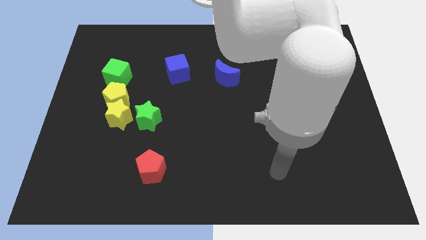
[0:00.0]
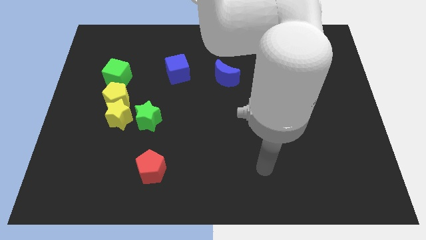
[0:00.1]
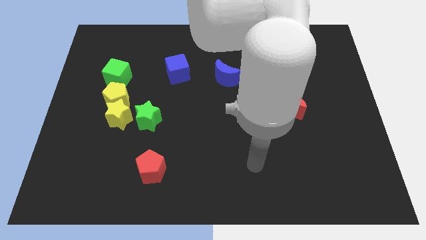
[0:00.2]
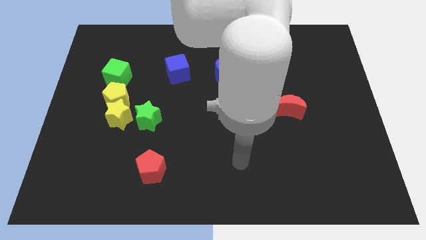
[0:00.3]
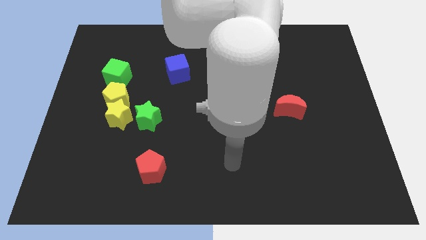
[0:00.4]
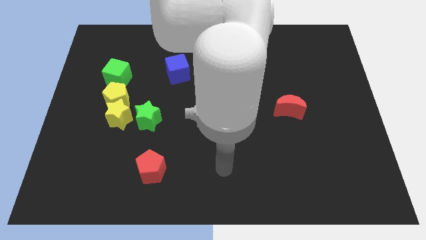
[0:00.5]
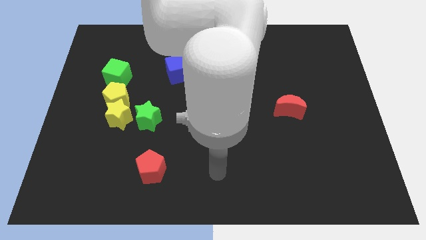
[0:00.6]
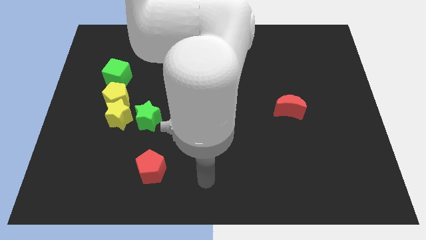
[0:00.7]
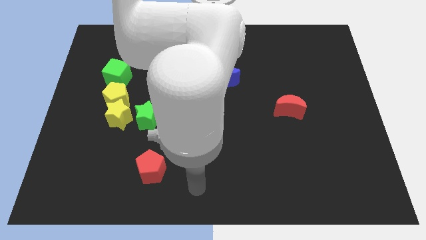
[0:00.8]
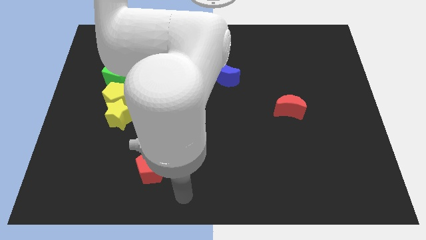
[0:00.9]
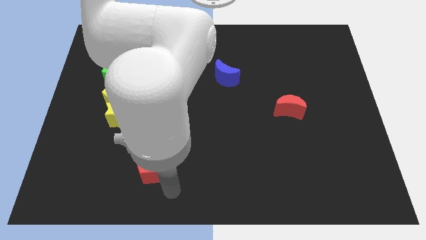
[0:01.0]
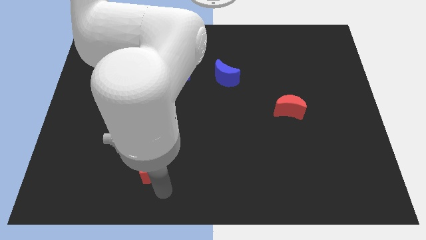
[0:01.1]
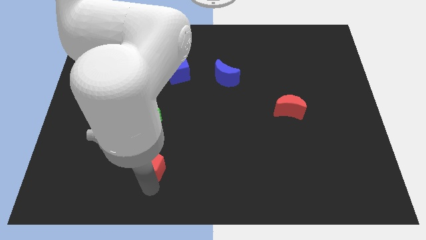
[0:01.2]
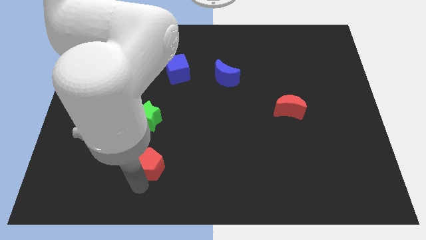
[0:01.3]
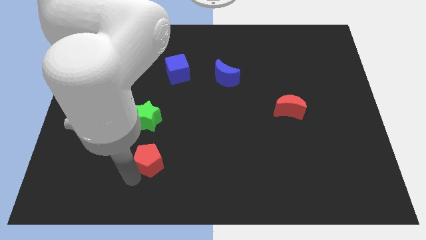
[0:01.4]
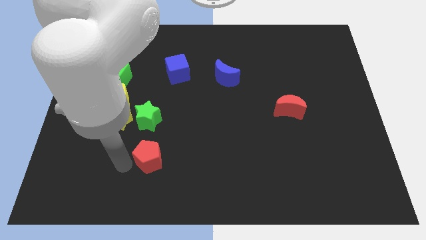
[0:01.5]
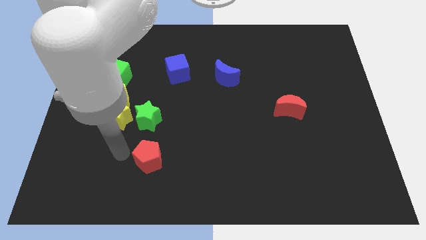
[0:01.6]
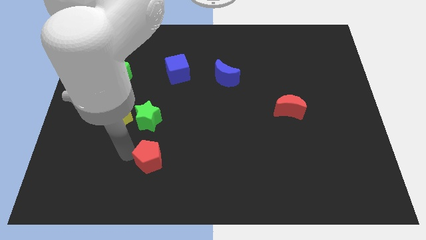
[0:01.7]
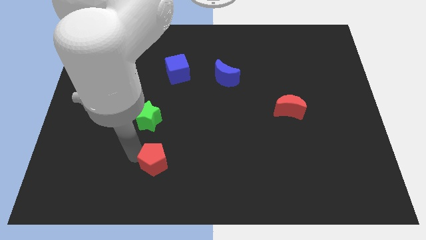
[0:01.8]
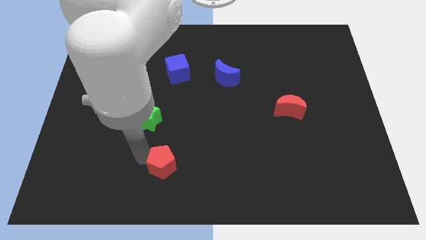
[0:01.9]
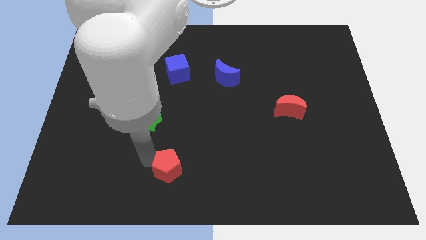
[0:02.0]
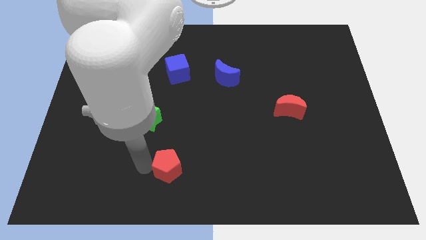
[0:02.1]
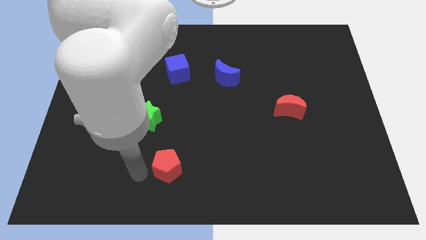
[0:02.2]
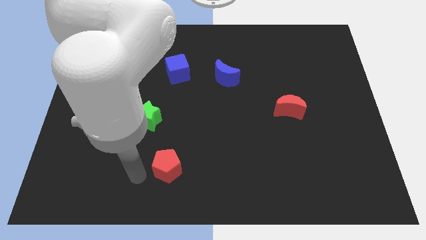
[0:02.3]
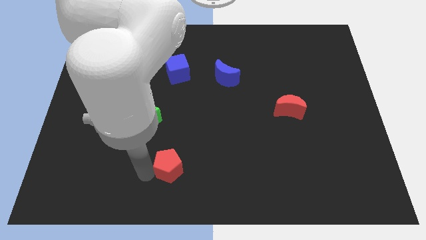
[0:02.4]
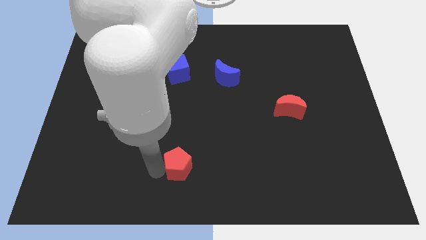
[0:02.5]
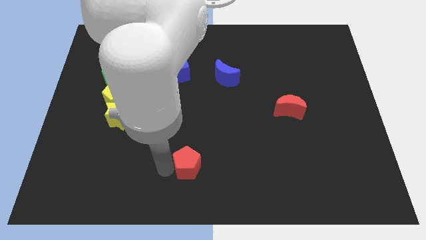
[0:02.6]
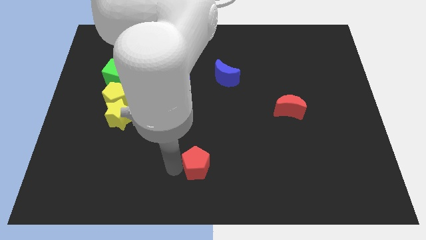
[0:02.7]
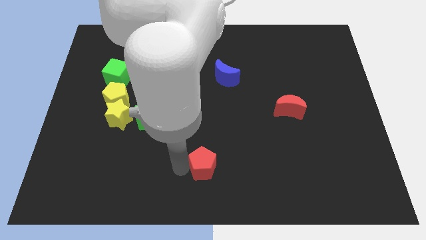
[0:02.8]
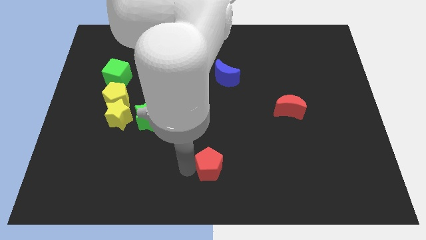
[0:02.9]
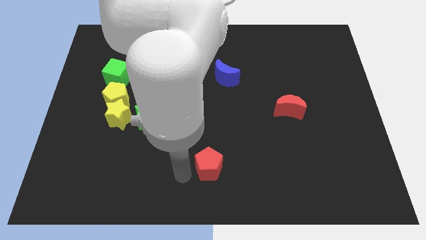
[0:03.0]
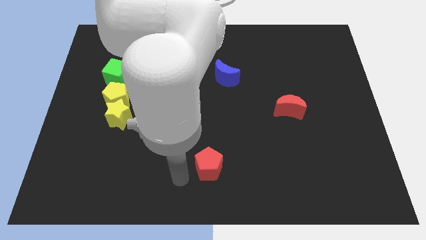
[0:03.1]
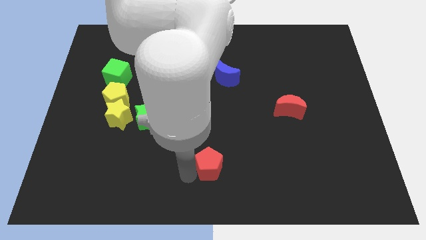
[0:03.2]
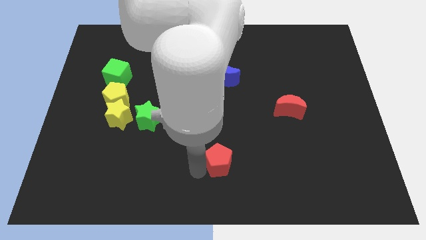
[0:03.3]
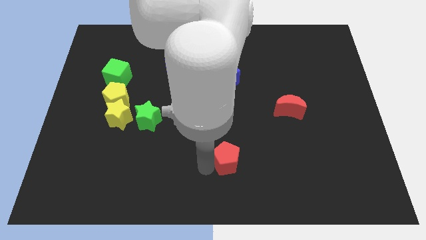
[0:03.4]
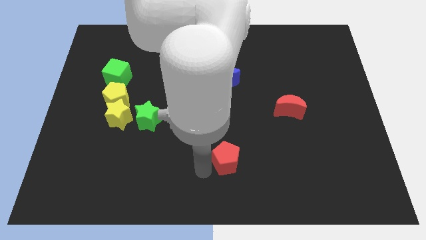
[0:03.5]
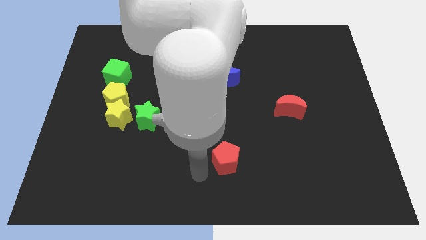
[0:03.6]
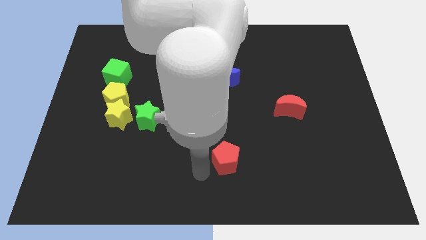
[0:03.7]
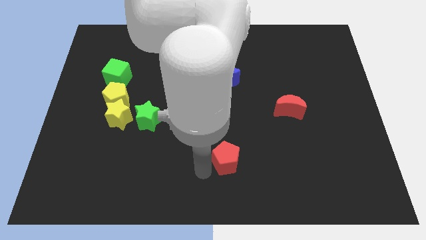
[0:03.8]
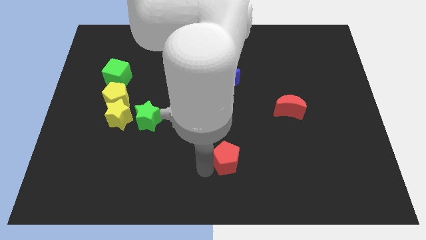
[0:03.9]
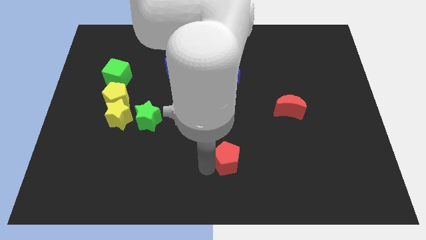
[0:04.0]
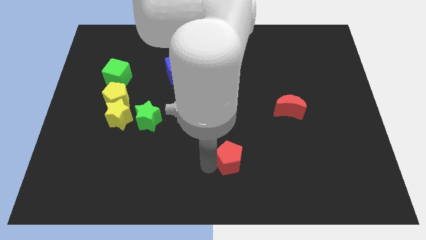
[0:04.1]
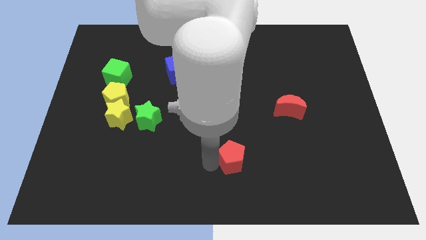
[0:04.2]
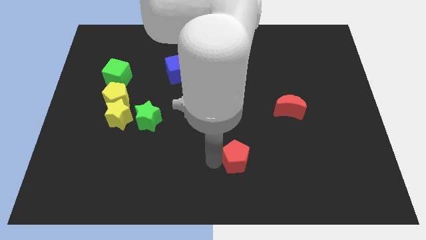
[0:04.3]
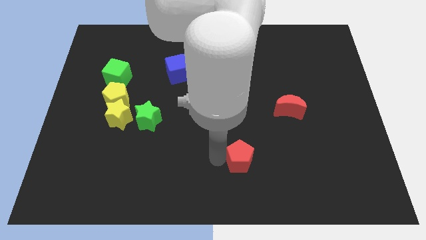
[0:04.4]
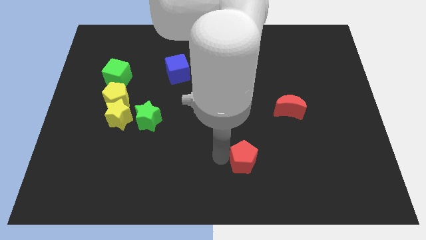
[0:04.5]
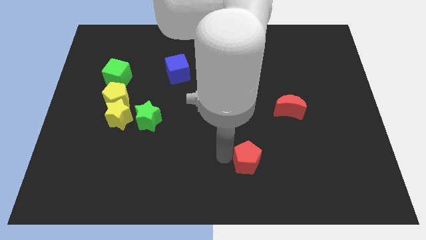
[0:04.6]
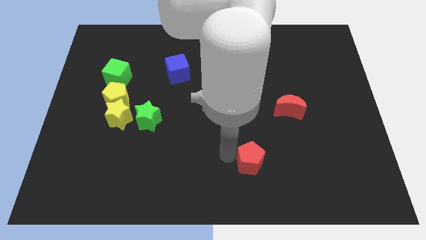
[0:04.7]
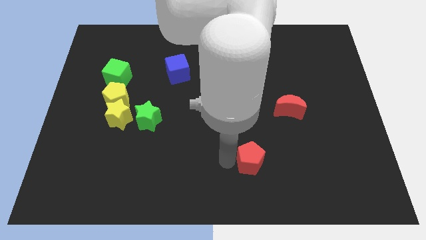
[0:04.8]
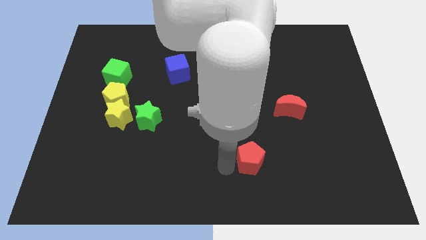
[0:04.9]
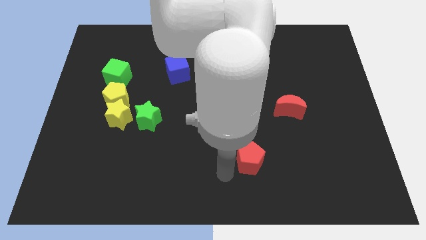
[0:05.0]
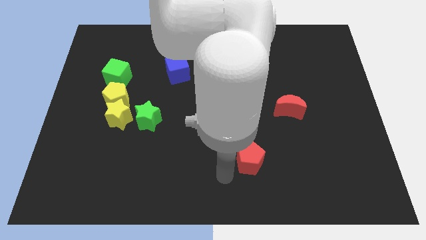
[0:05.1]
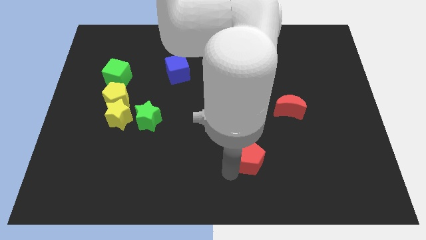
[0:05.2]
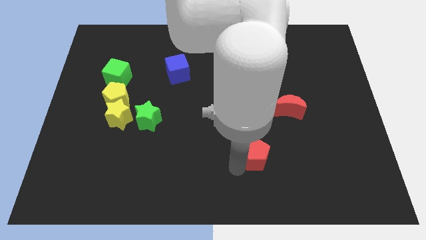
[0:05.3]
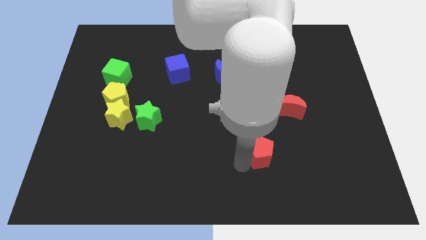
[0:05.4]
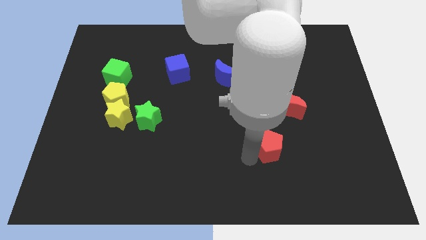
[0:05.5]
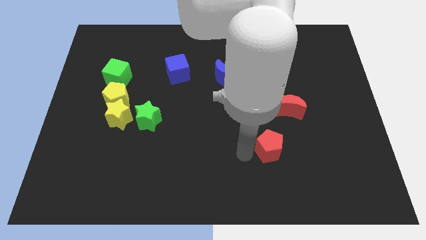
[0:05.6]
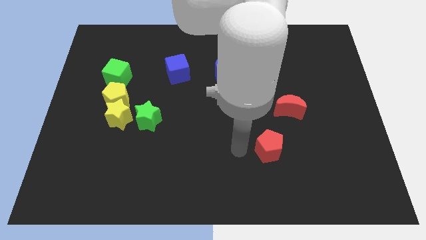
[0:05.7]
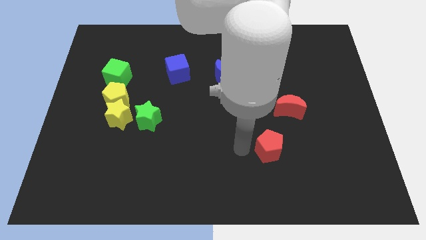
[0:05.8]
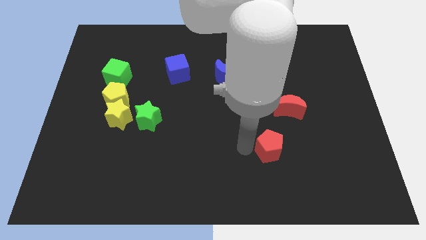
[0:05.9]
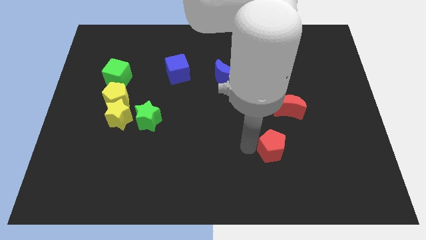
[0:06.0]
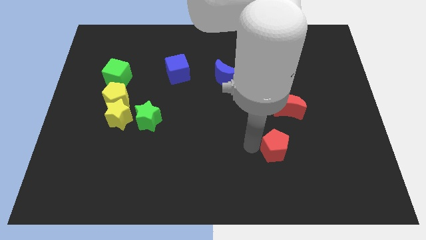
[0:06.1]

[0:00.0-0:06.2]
move the red pentagon to the bottom side of the red moon

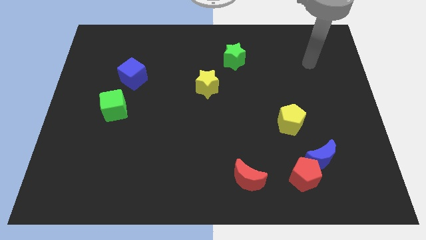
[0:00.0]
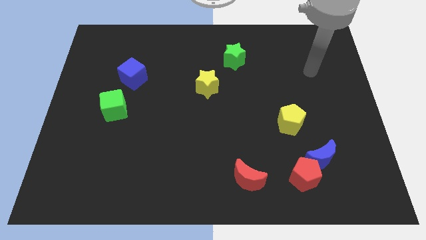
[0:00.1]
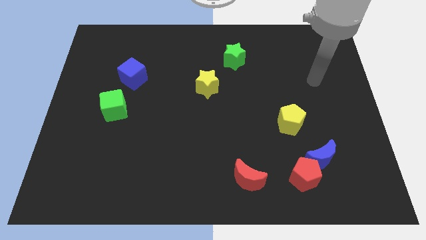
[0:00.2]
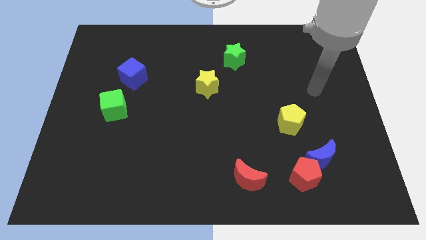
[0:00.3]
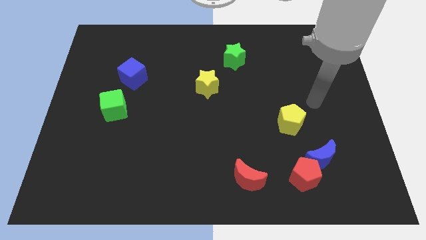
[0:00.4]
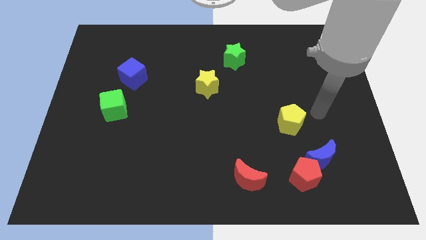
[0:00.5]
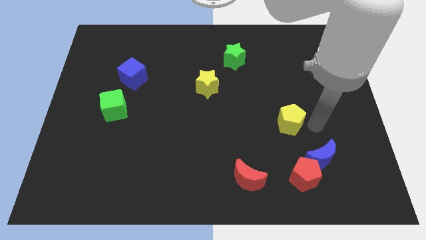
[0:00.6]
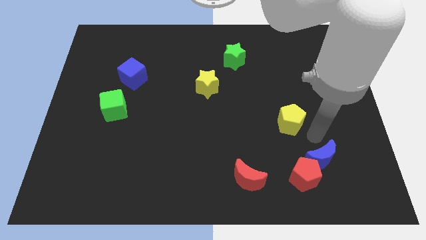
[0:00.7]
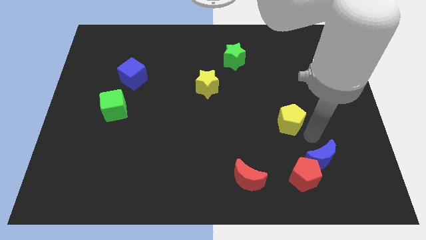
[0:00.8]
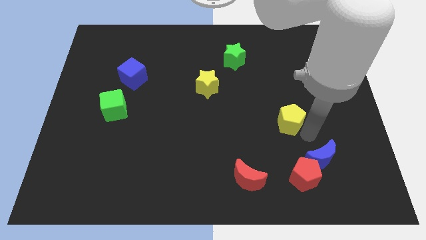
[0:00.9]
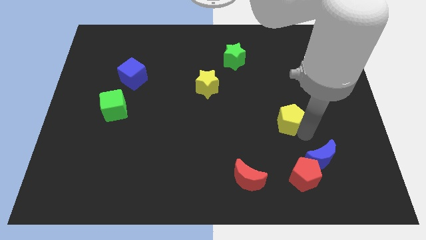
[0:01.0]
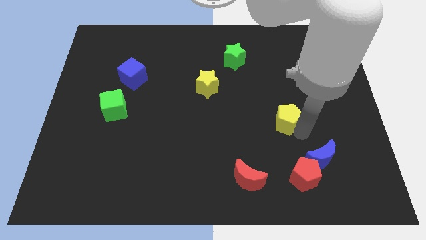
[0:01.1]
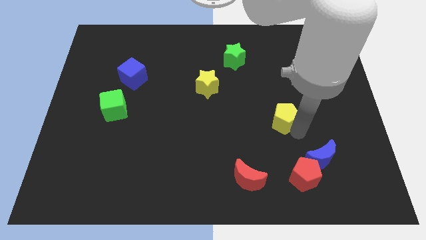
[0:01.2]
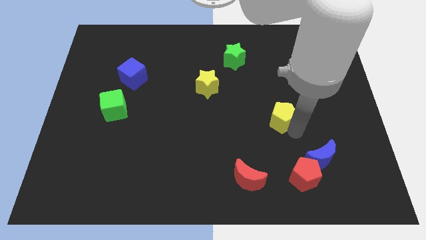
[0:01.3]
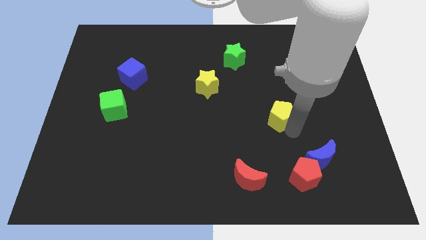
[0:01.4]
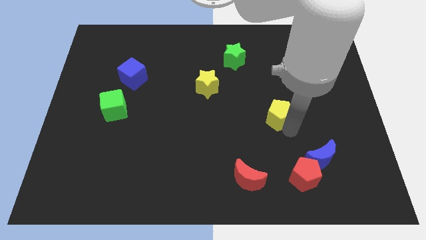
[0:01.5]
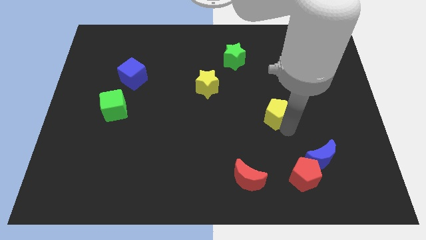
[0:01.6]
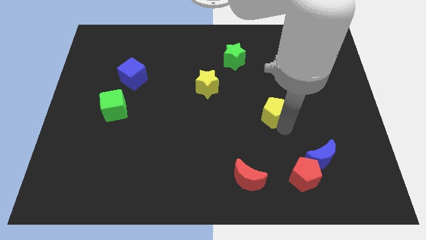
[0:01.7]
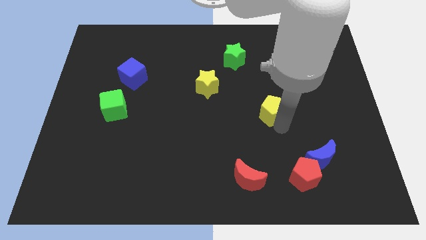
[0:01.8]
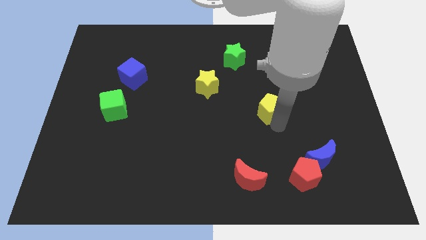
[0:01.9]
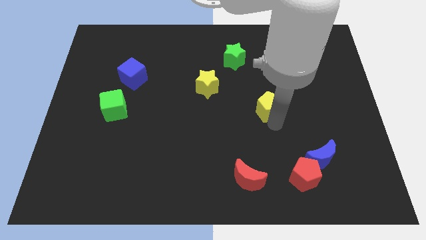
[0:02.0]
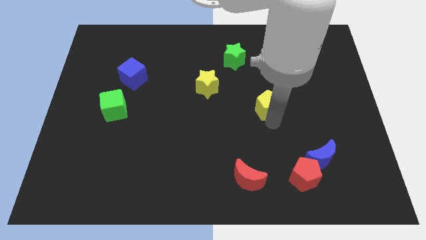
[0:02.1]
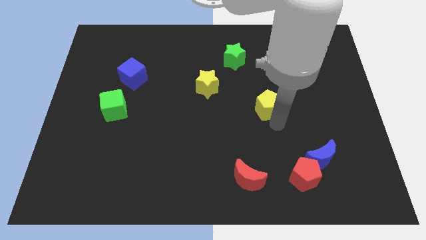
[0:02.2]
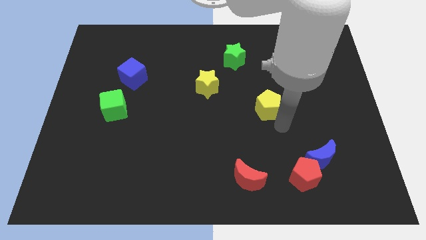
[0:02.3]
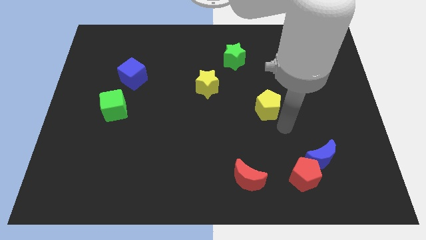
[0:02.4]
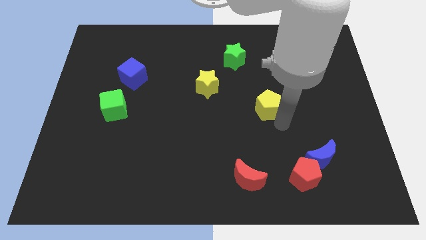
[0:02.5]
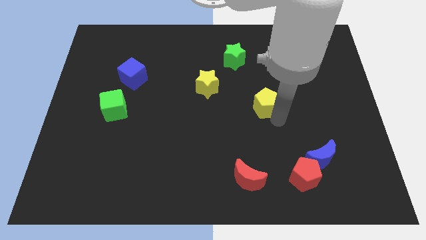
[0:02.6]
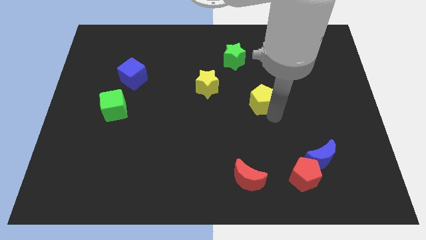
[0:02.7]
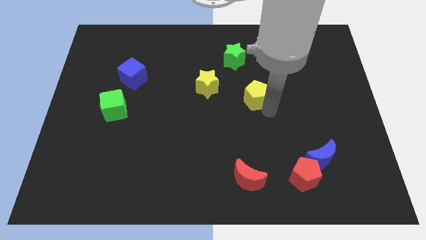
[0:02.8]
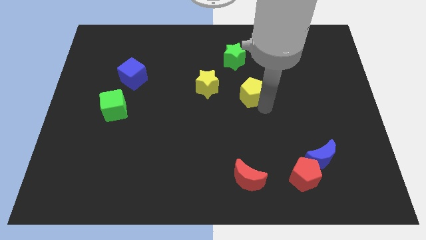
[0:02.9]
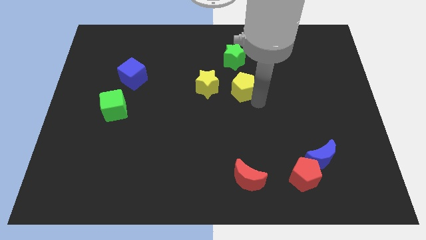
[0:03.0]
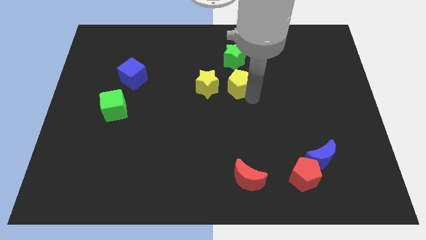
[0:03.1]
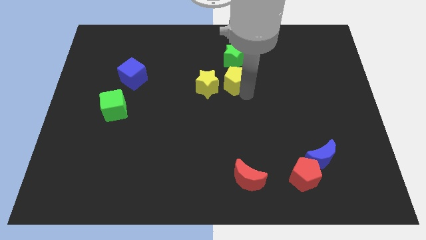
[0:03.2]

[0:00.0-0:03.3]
put the yellow pentagon diagonally up and to the right of the yellow star
